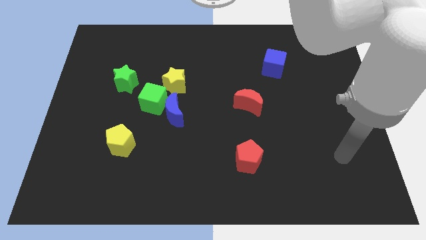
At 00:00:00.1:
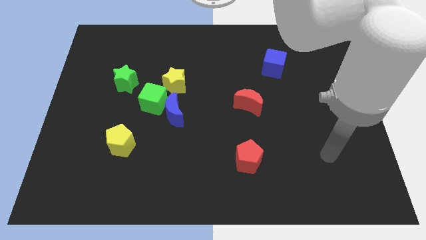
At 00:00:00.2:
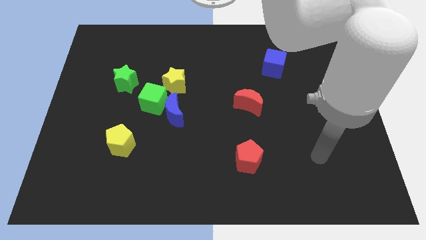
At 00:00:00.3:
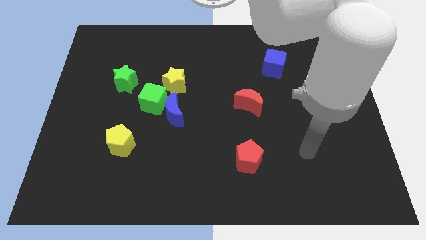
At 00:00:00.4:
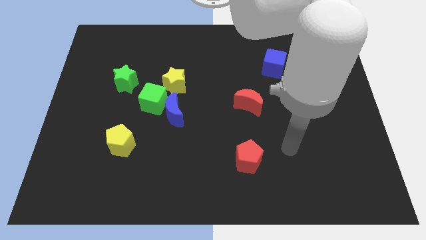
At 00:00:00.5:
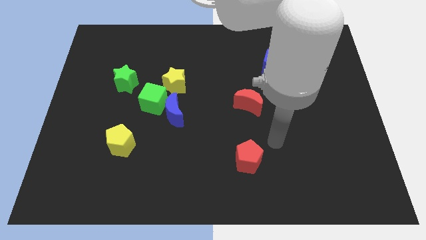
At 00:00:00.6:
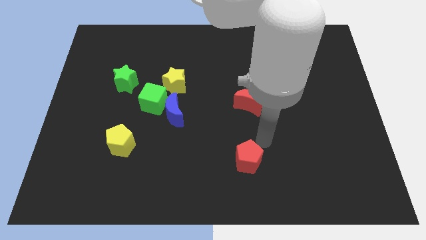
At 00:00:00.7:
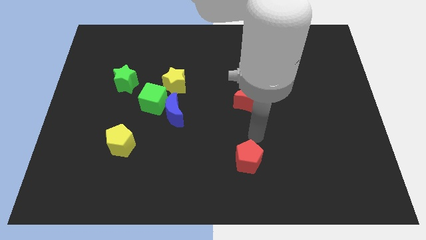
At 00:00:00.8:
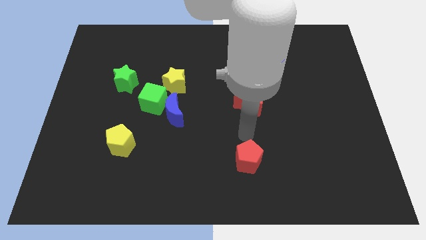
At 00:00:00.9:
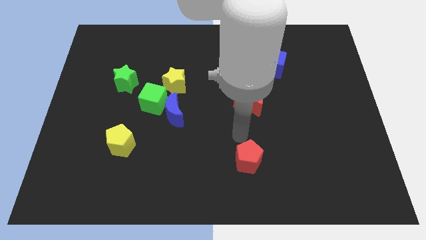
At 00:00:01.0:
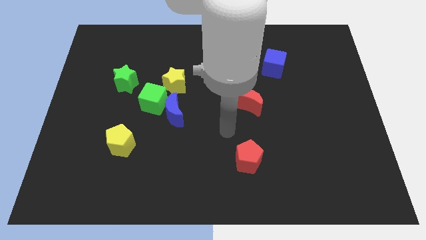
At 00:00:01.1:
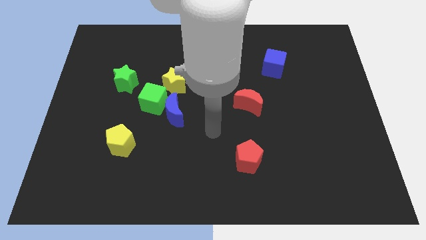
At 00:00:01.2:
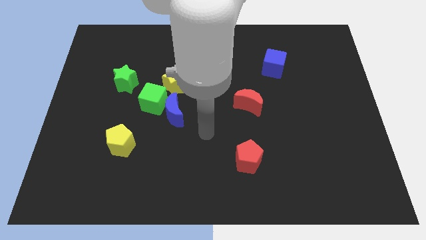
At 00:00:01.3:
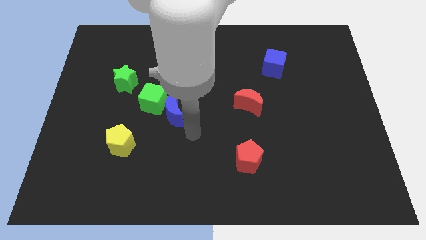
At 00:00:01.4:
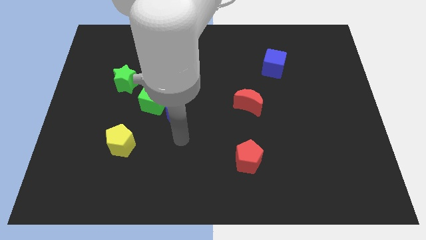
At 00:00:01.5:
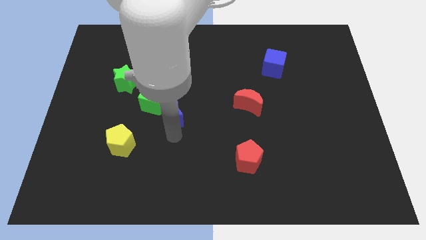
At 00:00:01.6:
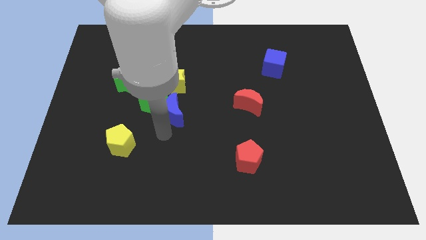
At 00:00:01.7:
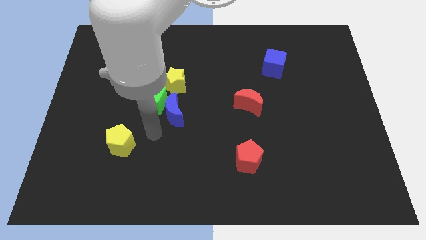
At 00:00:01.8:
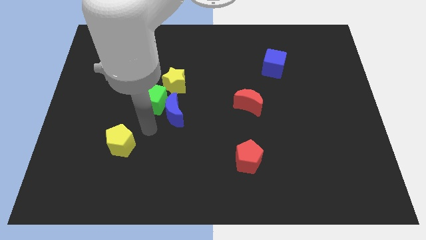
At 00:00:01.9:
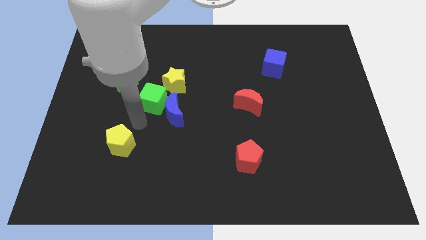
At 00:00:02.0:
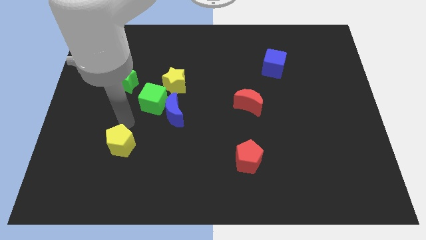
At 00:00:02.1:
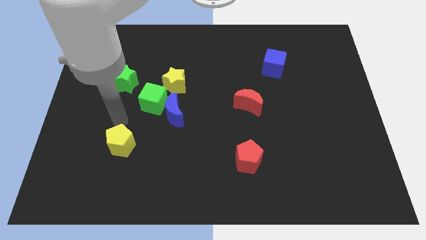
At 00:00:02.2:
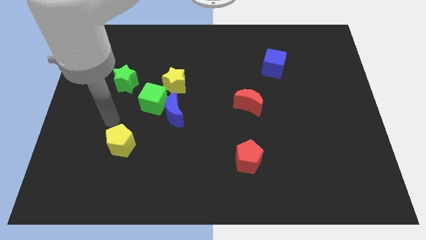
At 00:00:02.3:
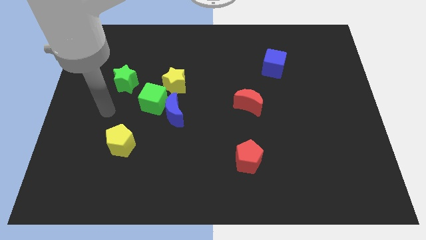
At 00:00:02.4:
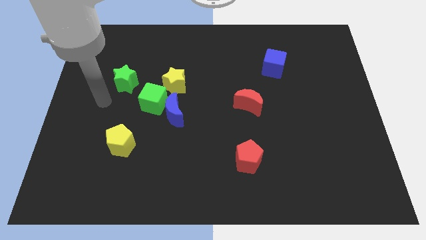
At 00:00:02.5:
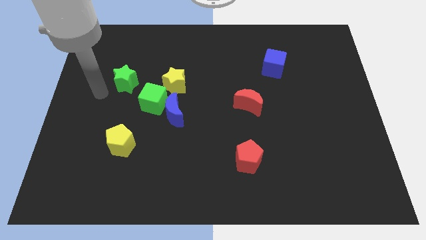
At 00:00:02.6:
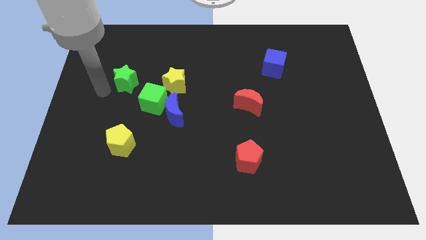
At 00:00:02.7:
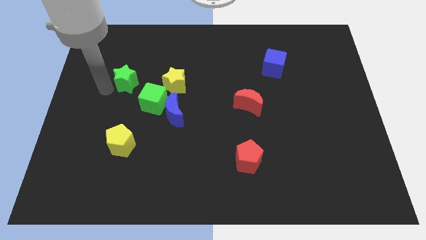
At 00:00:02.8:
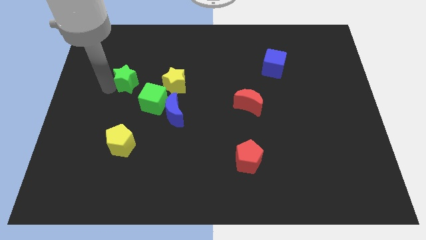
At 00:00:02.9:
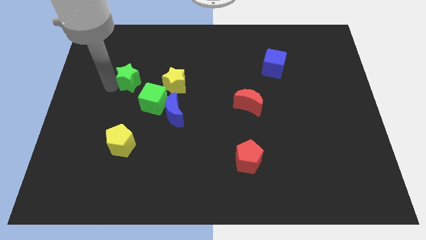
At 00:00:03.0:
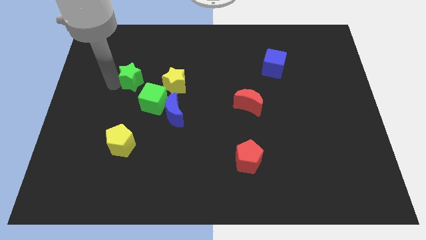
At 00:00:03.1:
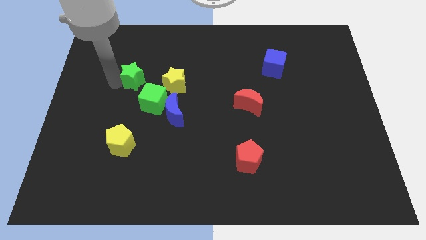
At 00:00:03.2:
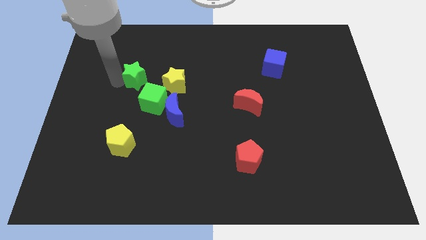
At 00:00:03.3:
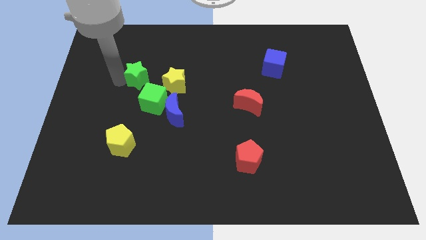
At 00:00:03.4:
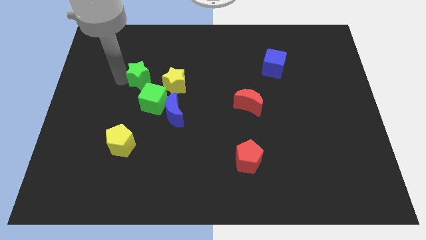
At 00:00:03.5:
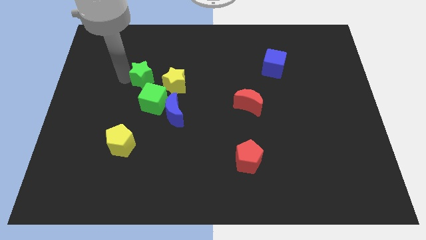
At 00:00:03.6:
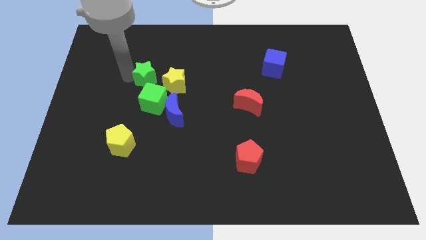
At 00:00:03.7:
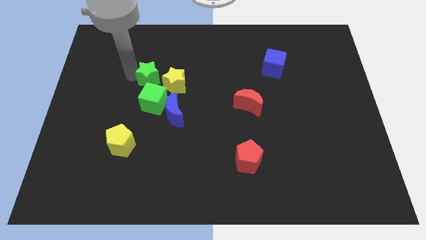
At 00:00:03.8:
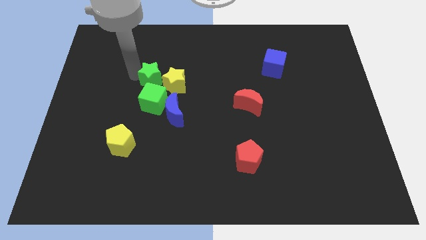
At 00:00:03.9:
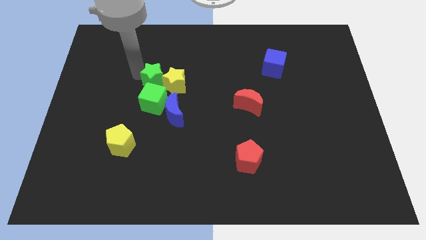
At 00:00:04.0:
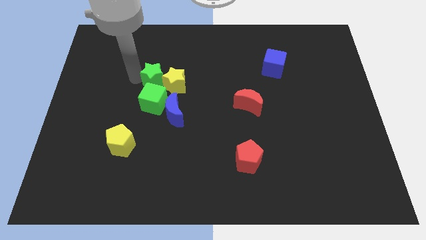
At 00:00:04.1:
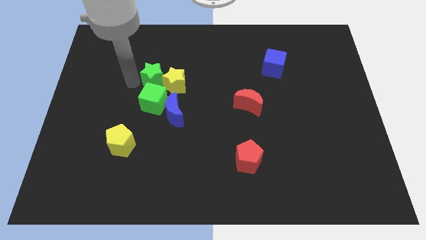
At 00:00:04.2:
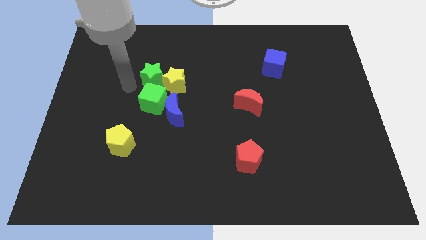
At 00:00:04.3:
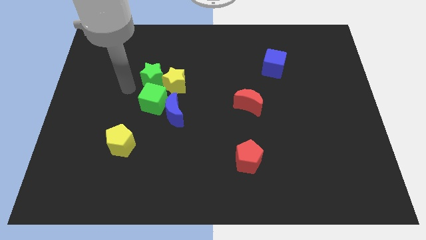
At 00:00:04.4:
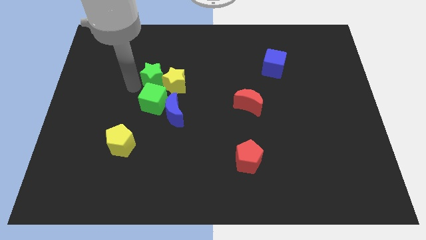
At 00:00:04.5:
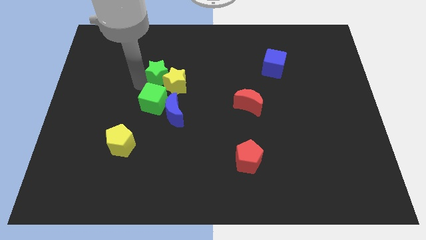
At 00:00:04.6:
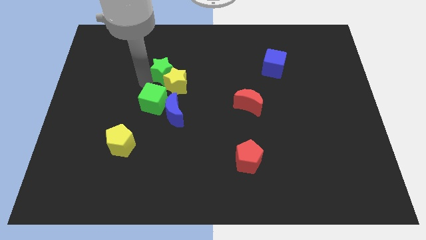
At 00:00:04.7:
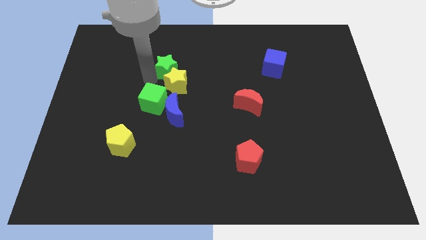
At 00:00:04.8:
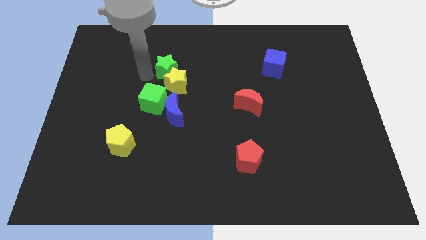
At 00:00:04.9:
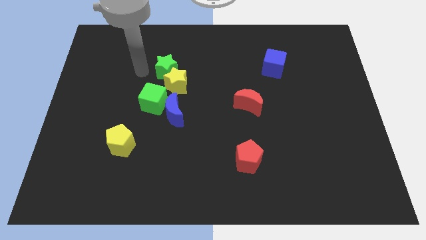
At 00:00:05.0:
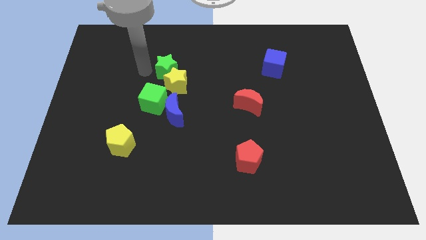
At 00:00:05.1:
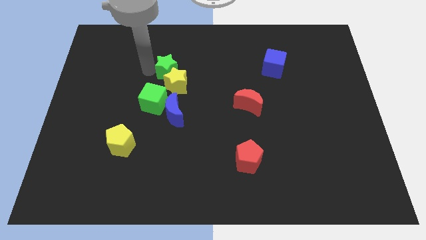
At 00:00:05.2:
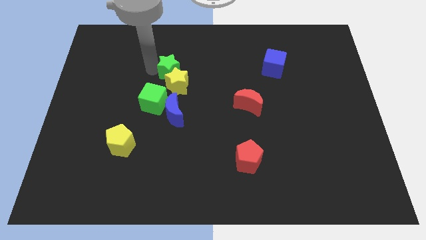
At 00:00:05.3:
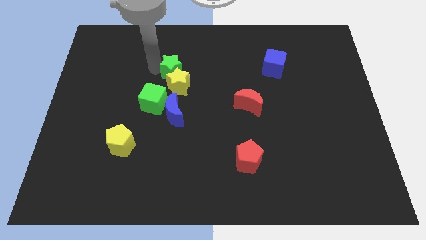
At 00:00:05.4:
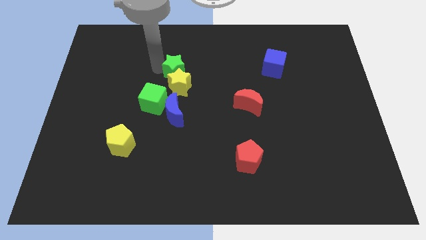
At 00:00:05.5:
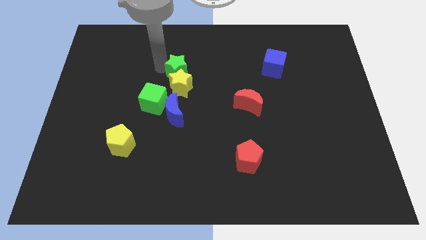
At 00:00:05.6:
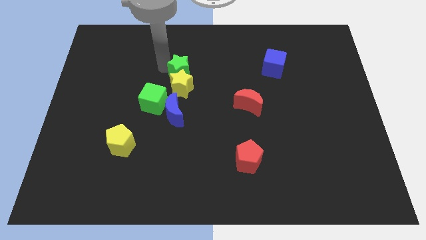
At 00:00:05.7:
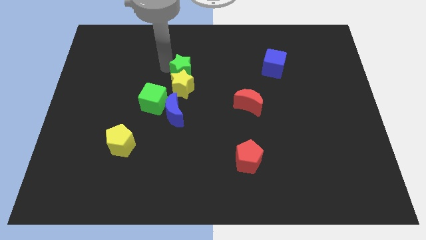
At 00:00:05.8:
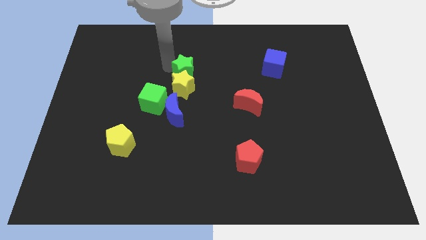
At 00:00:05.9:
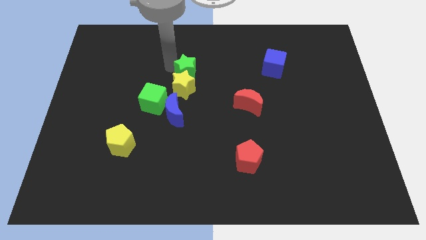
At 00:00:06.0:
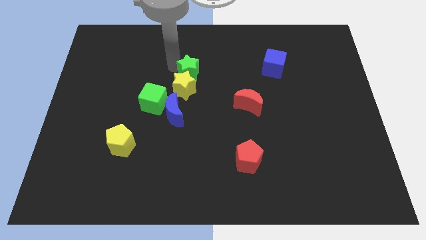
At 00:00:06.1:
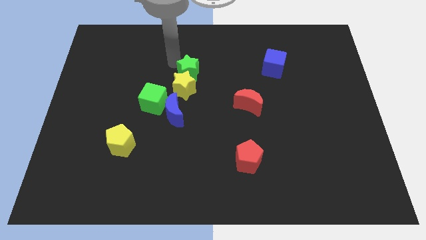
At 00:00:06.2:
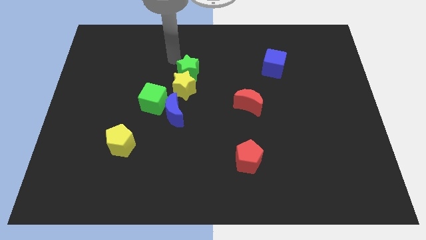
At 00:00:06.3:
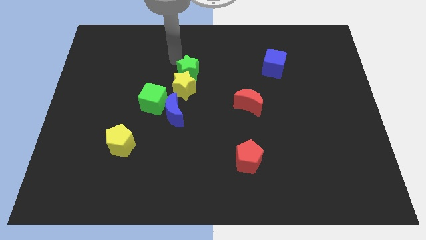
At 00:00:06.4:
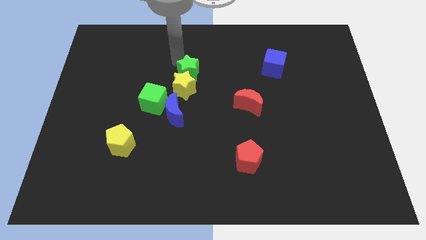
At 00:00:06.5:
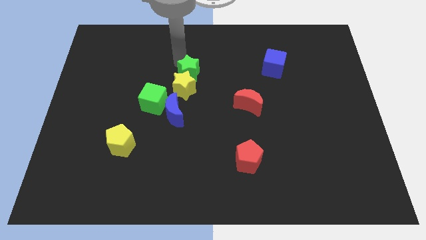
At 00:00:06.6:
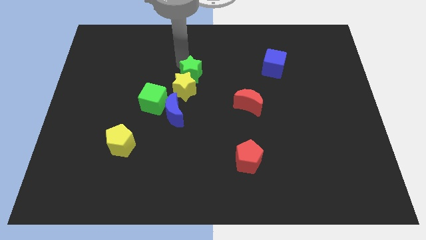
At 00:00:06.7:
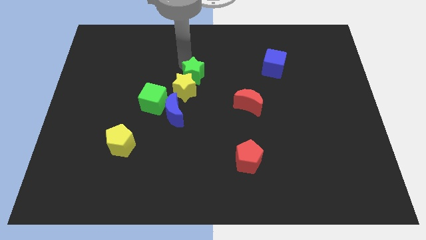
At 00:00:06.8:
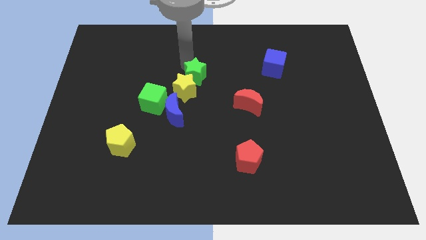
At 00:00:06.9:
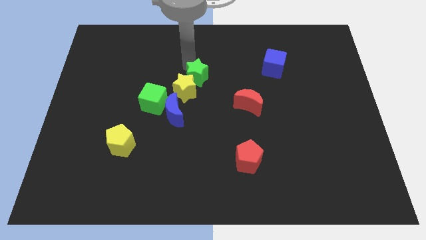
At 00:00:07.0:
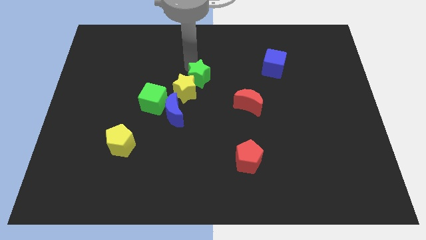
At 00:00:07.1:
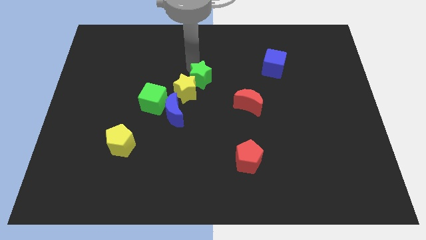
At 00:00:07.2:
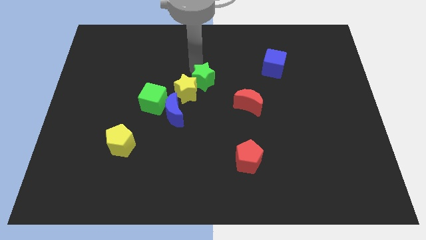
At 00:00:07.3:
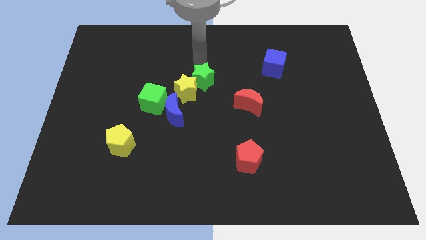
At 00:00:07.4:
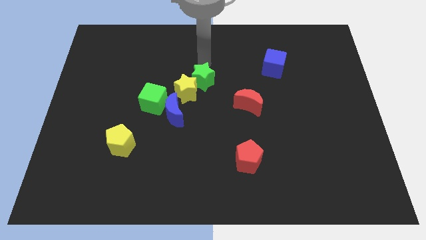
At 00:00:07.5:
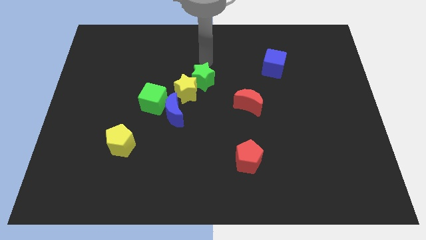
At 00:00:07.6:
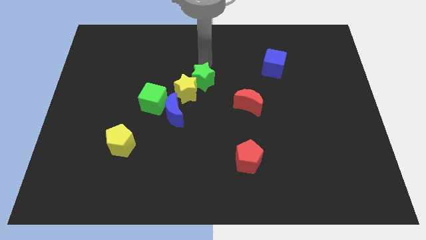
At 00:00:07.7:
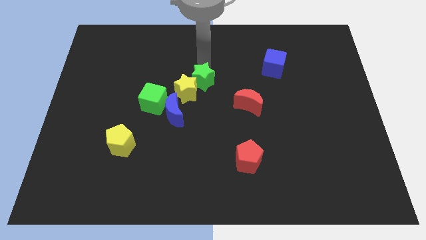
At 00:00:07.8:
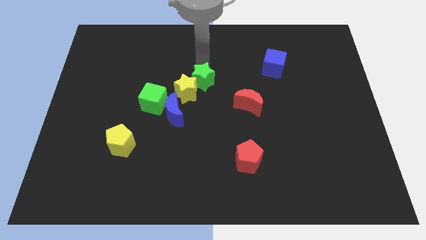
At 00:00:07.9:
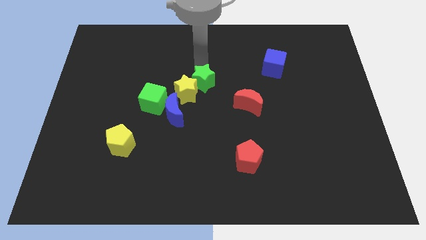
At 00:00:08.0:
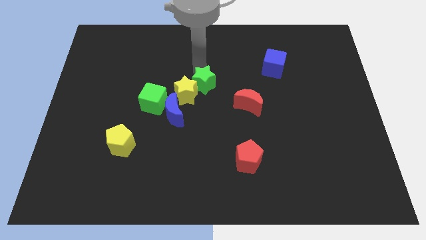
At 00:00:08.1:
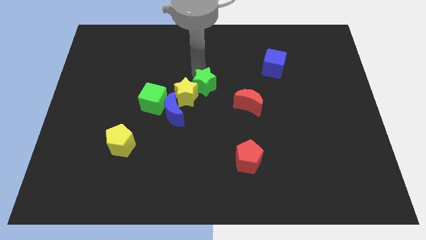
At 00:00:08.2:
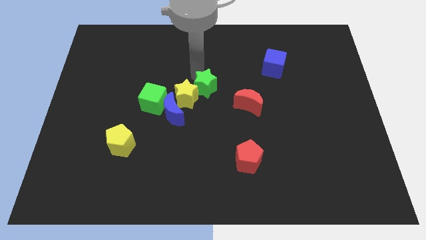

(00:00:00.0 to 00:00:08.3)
move the green star to the right of the green cube
